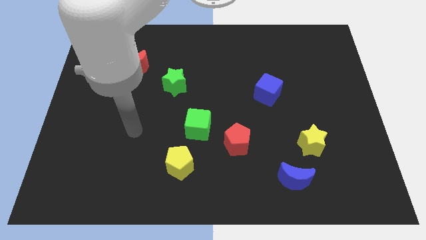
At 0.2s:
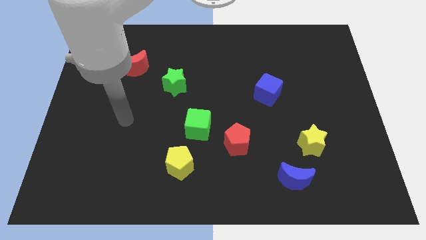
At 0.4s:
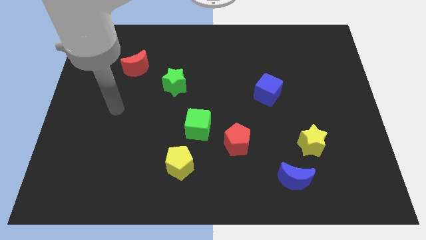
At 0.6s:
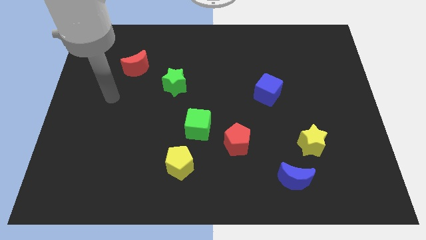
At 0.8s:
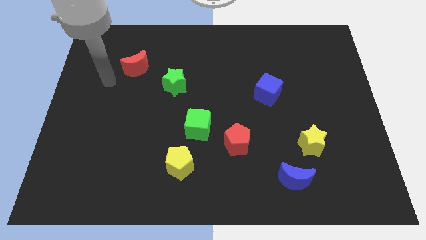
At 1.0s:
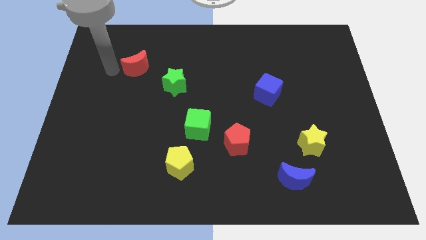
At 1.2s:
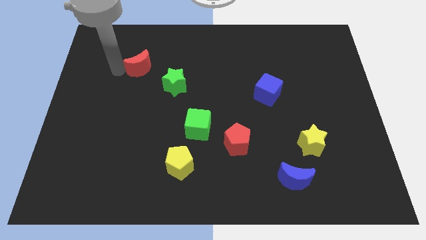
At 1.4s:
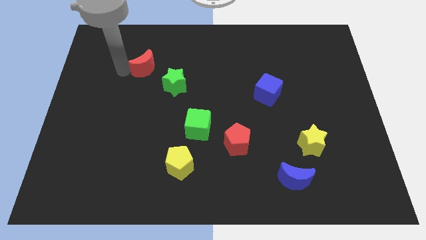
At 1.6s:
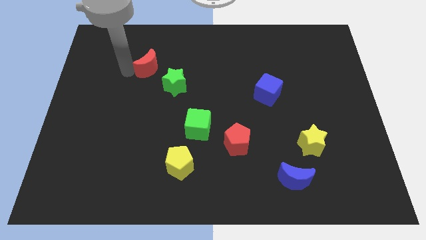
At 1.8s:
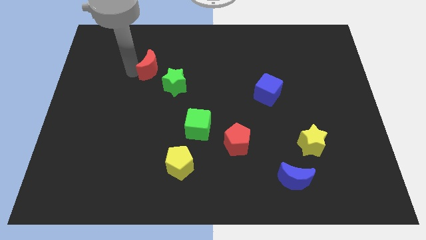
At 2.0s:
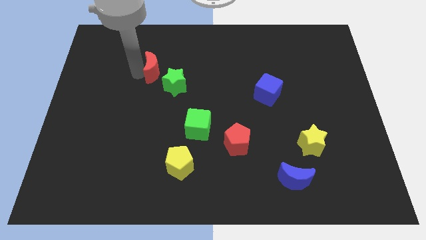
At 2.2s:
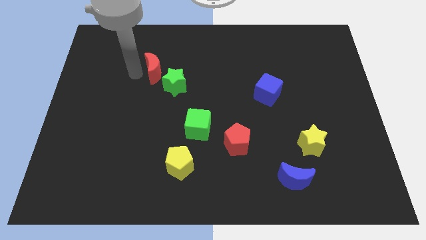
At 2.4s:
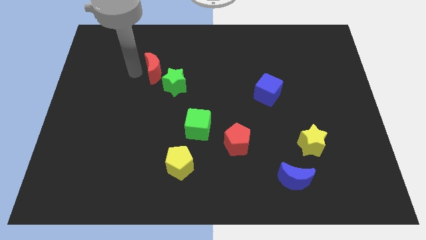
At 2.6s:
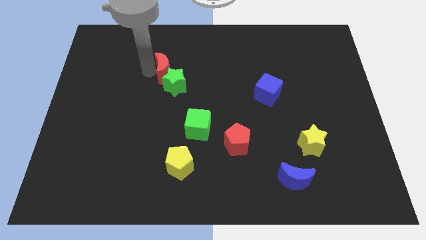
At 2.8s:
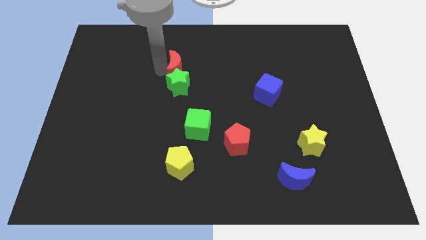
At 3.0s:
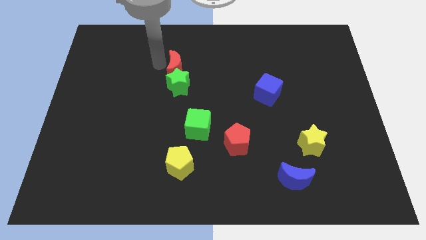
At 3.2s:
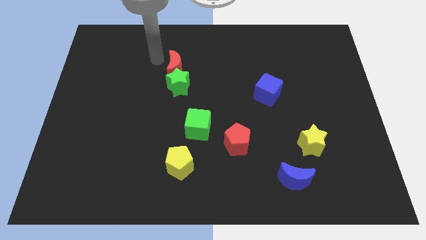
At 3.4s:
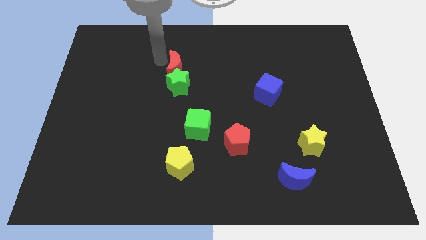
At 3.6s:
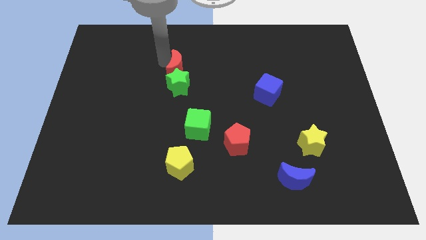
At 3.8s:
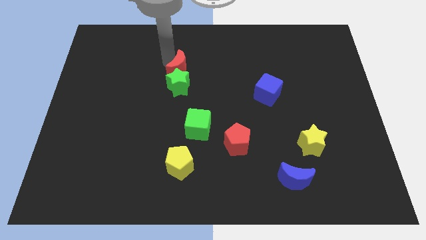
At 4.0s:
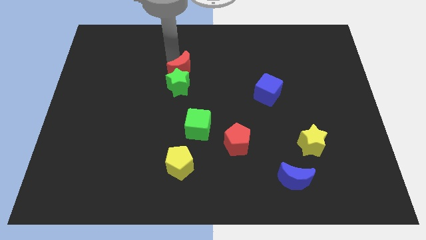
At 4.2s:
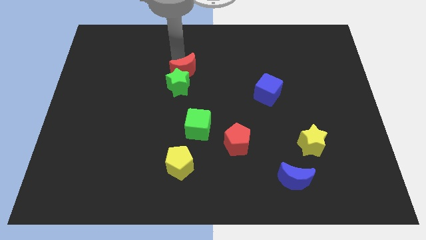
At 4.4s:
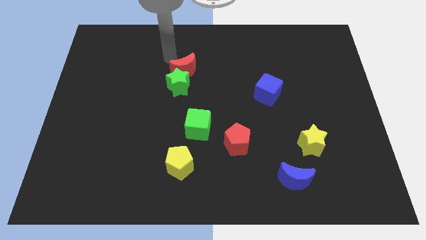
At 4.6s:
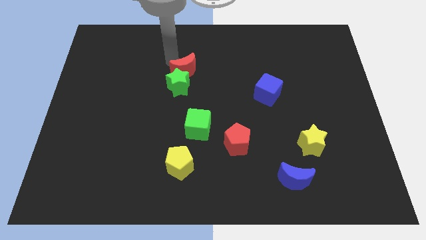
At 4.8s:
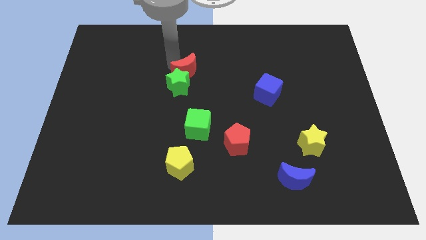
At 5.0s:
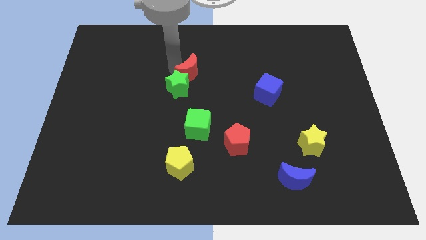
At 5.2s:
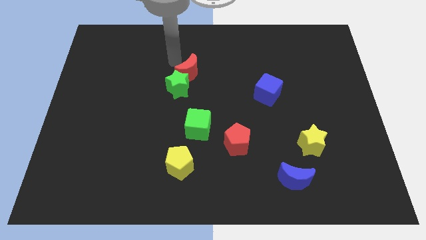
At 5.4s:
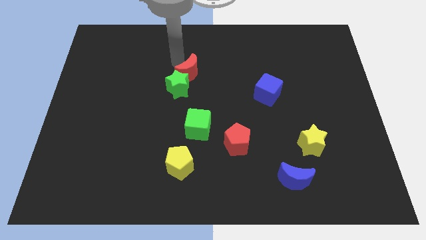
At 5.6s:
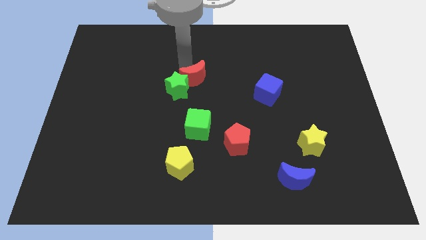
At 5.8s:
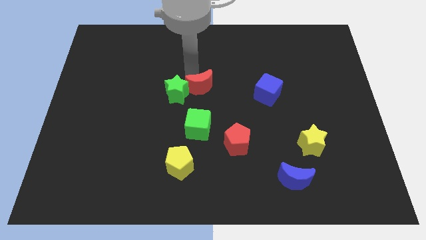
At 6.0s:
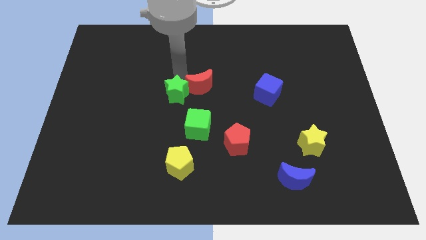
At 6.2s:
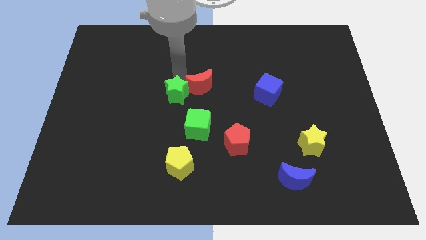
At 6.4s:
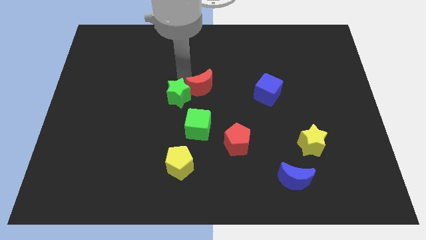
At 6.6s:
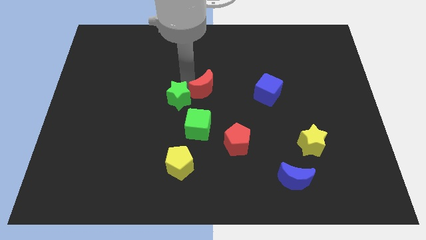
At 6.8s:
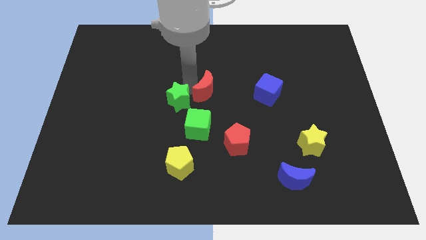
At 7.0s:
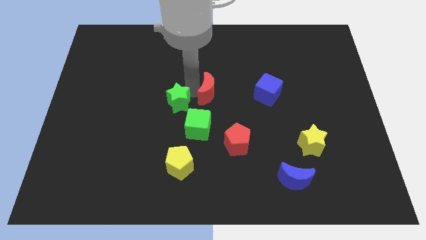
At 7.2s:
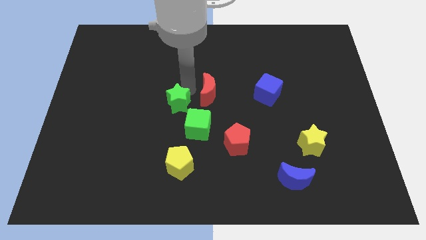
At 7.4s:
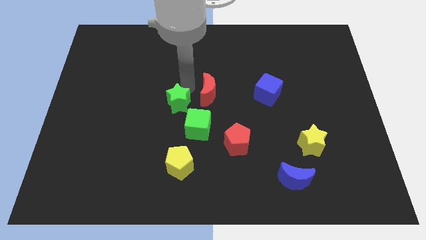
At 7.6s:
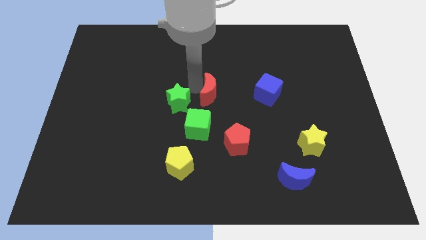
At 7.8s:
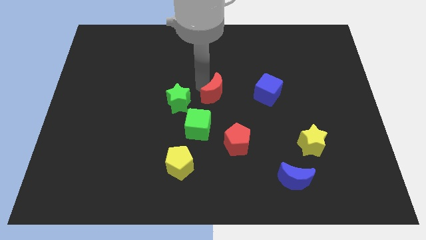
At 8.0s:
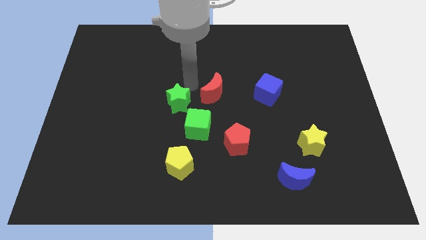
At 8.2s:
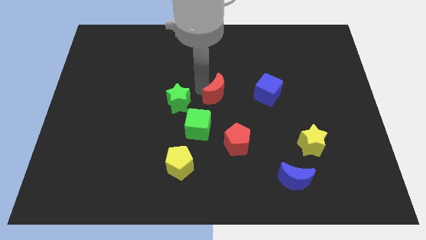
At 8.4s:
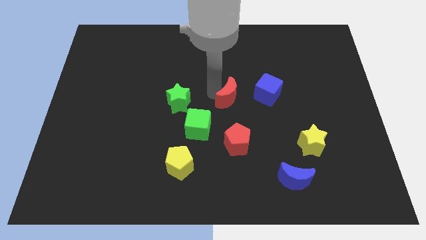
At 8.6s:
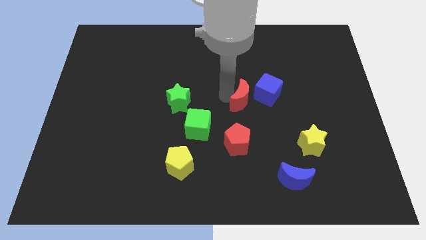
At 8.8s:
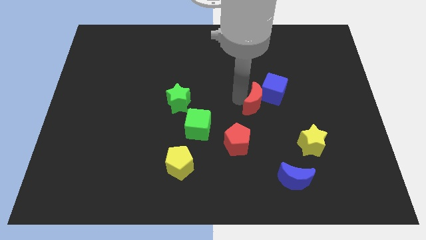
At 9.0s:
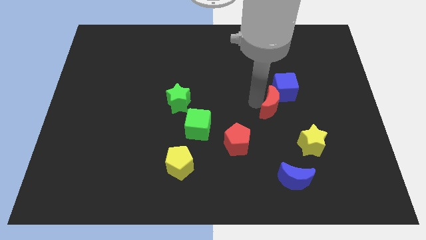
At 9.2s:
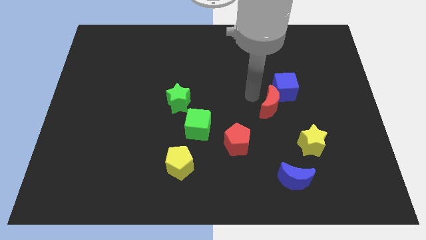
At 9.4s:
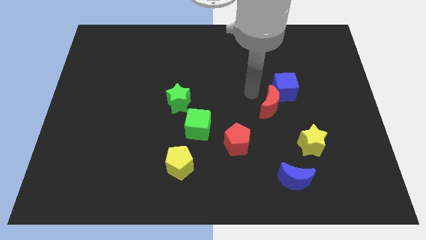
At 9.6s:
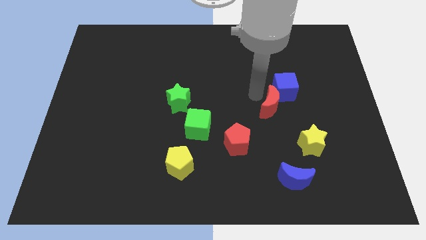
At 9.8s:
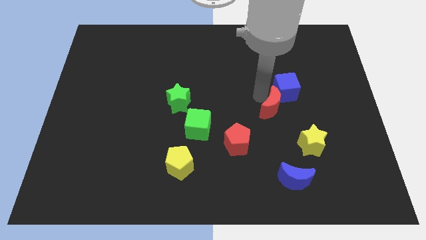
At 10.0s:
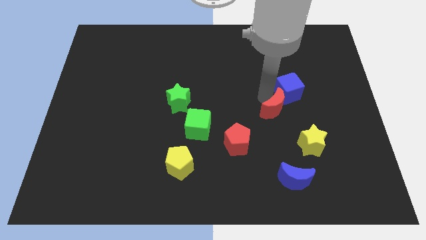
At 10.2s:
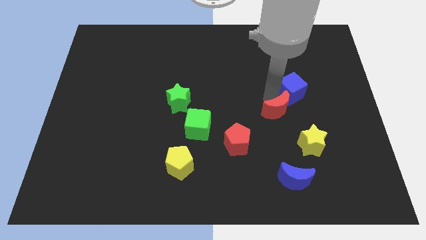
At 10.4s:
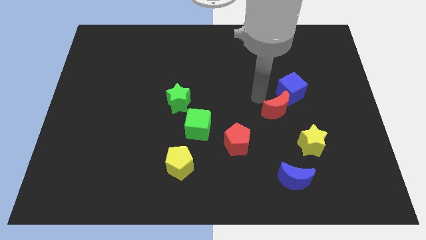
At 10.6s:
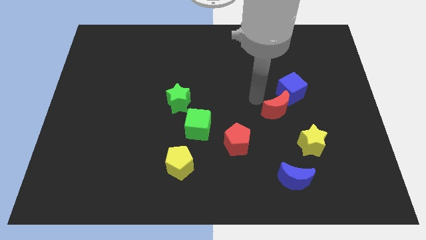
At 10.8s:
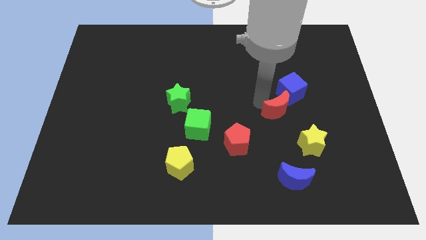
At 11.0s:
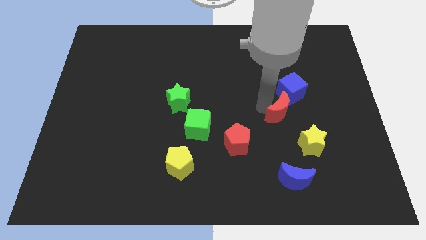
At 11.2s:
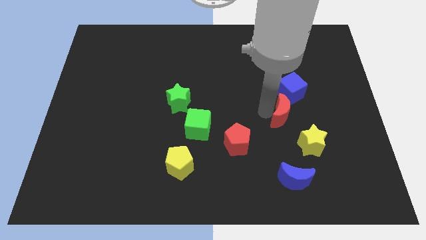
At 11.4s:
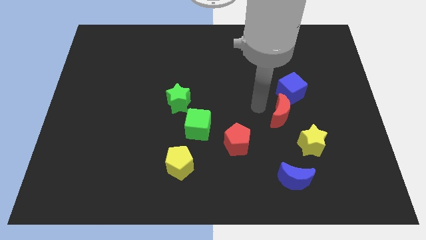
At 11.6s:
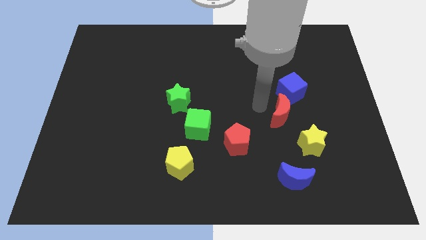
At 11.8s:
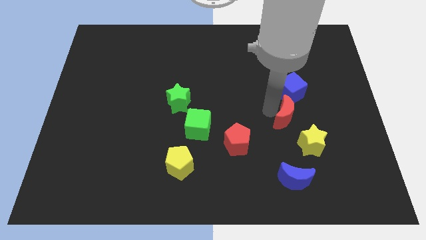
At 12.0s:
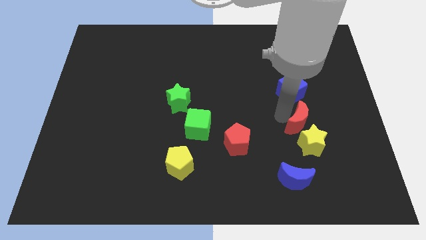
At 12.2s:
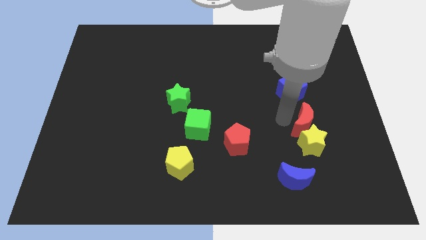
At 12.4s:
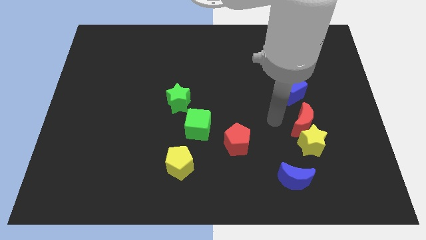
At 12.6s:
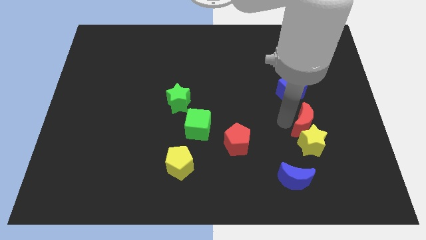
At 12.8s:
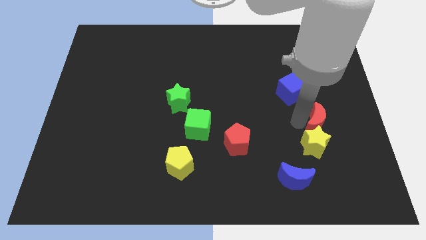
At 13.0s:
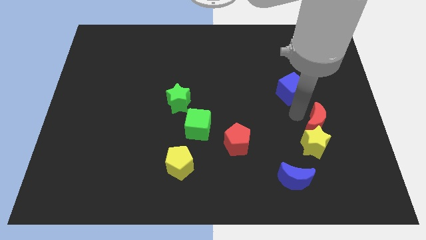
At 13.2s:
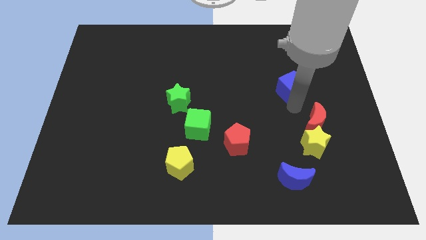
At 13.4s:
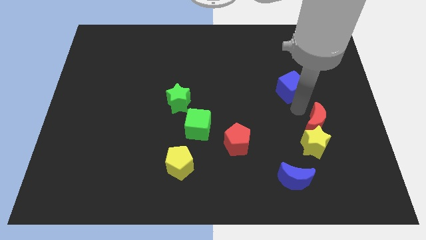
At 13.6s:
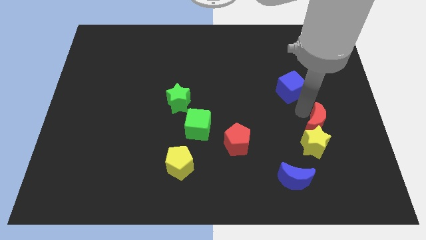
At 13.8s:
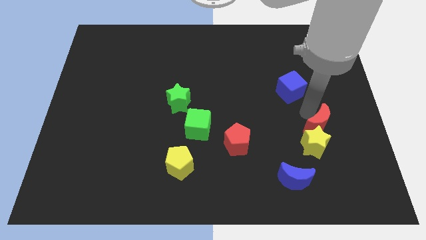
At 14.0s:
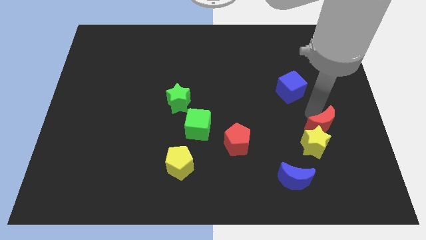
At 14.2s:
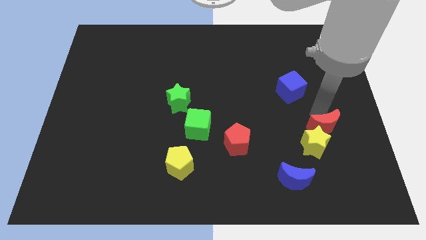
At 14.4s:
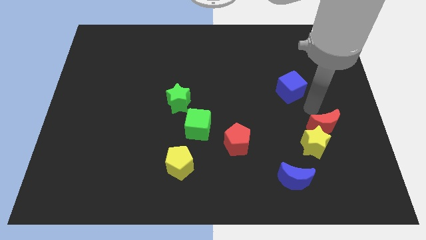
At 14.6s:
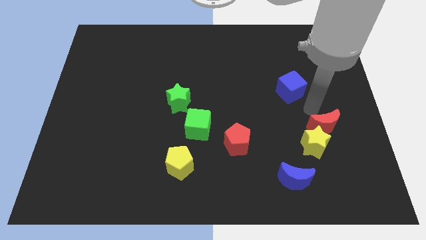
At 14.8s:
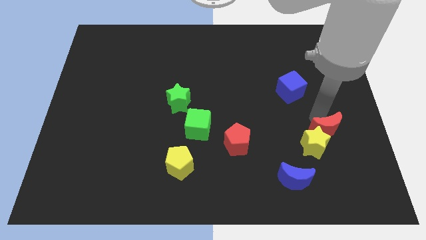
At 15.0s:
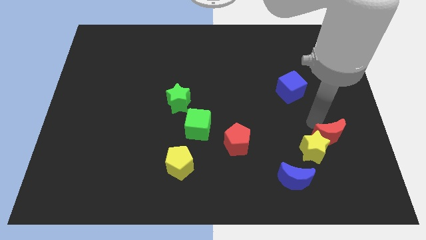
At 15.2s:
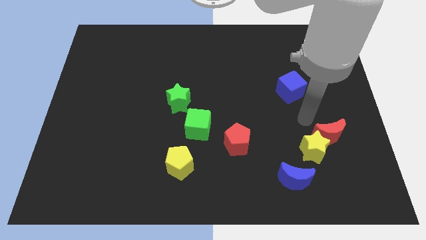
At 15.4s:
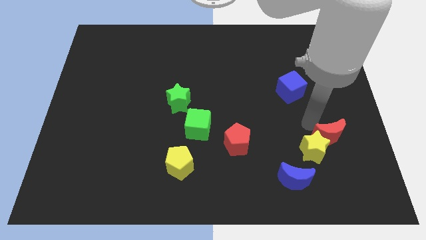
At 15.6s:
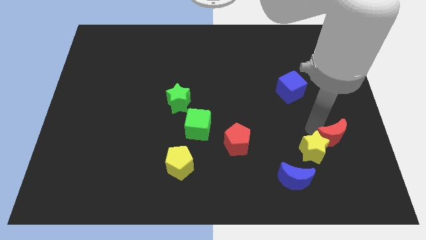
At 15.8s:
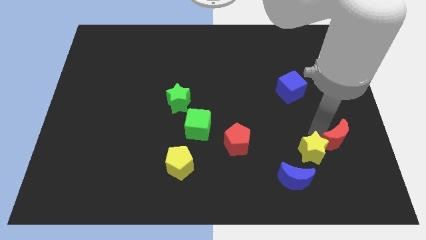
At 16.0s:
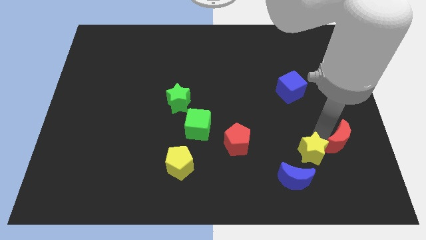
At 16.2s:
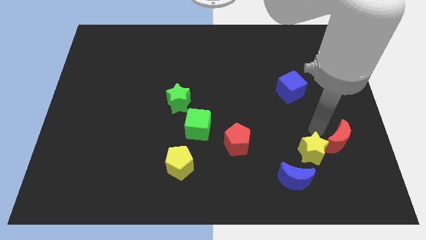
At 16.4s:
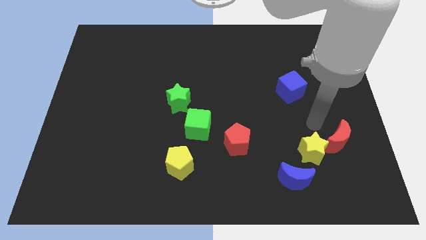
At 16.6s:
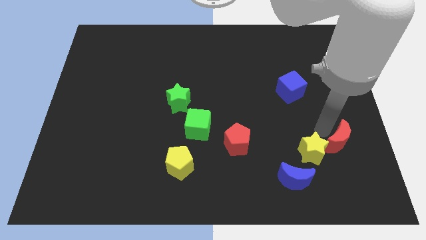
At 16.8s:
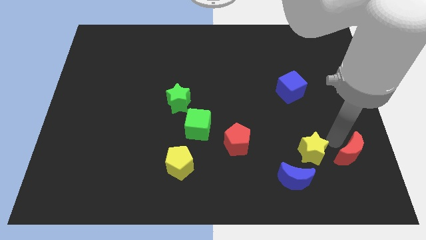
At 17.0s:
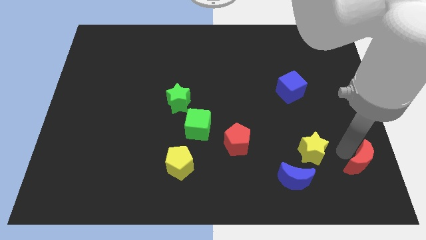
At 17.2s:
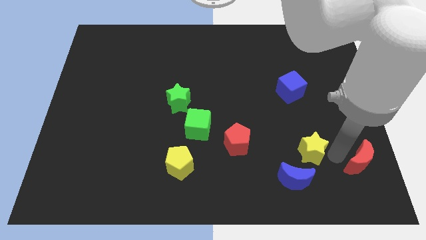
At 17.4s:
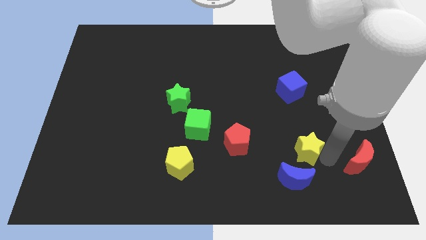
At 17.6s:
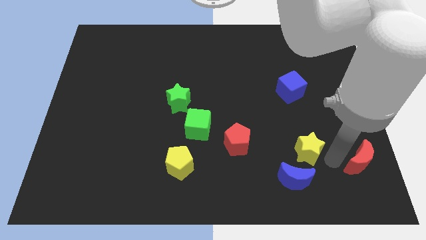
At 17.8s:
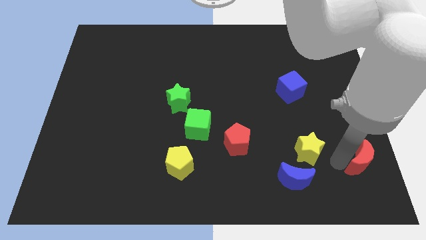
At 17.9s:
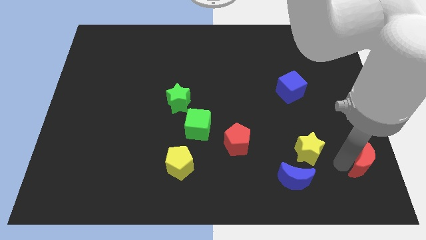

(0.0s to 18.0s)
move the red moon to the lower right corner
